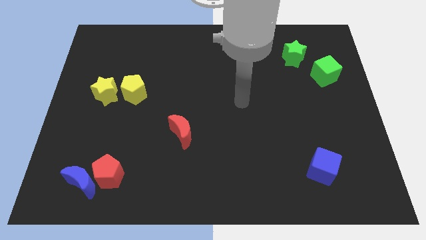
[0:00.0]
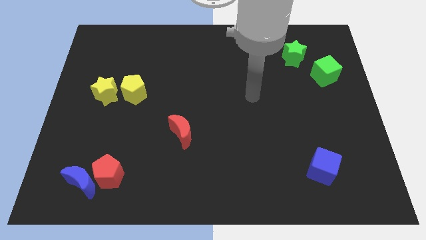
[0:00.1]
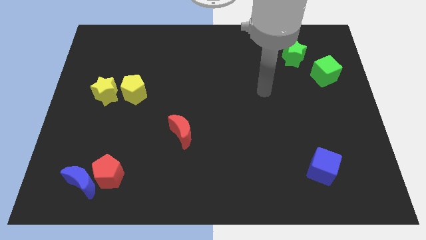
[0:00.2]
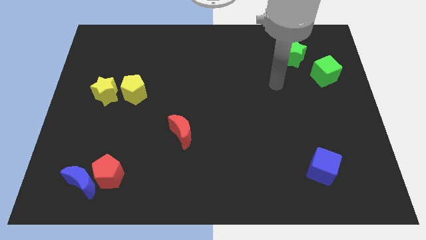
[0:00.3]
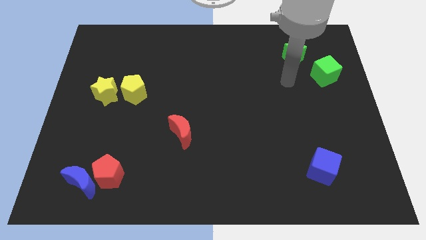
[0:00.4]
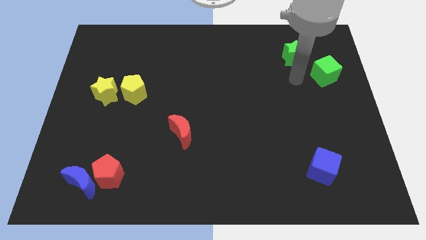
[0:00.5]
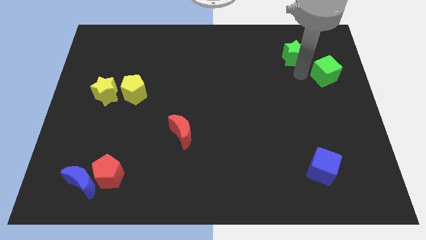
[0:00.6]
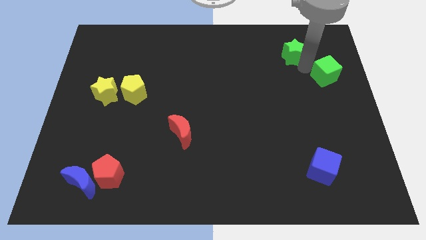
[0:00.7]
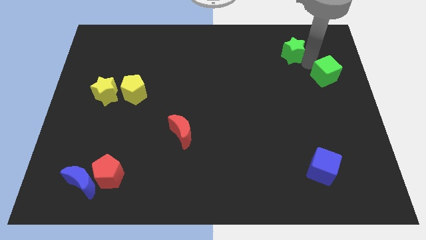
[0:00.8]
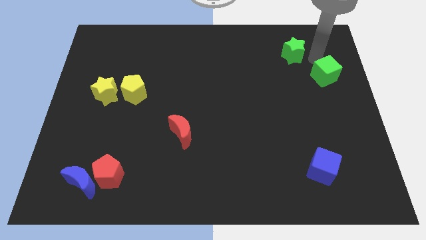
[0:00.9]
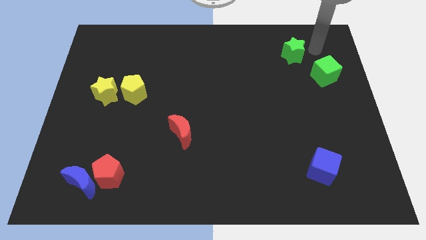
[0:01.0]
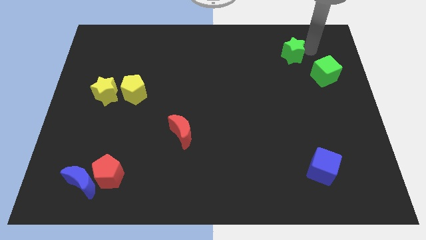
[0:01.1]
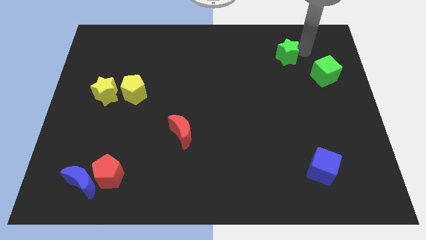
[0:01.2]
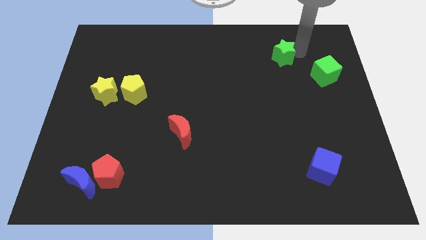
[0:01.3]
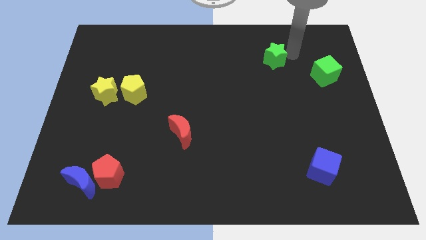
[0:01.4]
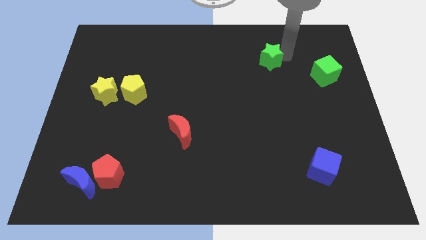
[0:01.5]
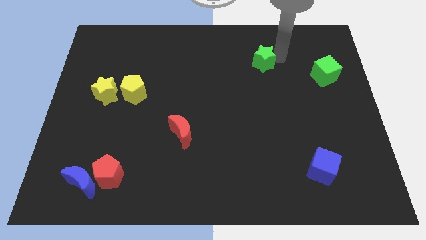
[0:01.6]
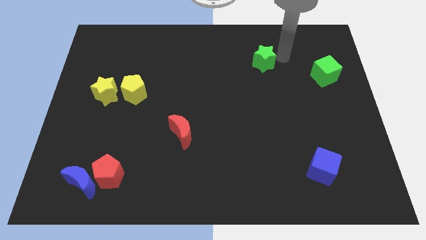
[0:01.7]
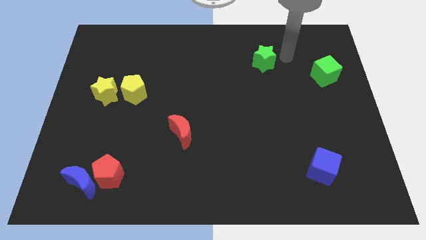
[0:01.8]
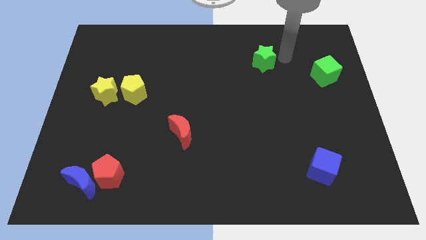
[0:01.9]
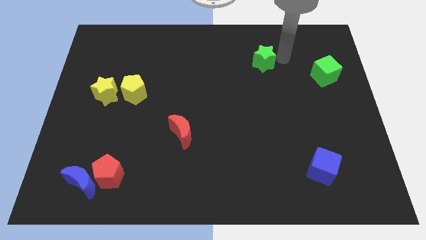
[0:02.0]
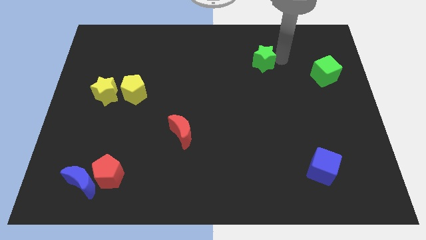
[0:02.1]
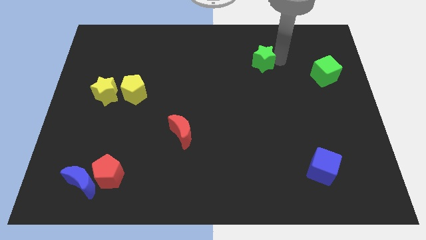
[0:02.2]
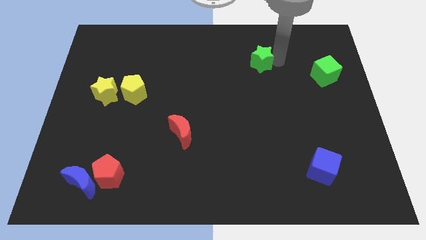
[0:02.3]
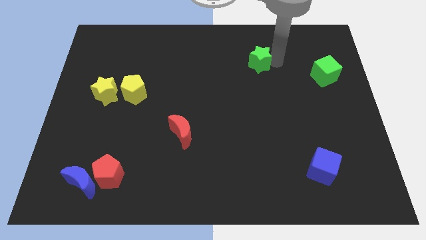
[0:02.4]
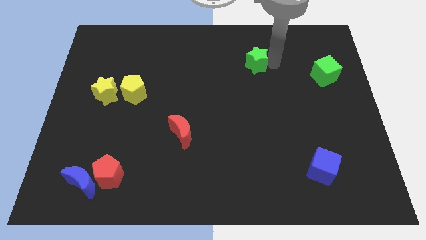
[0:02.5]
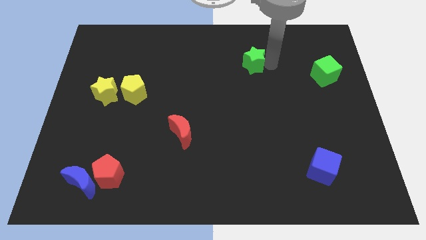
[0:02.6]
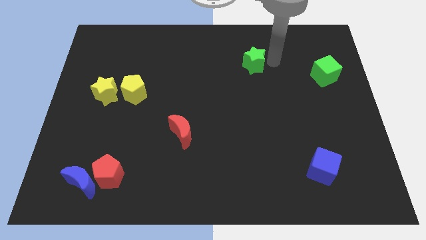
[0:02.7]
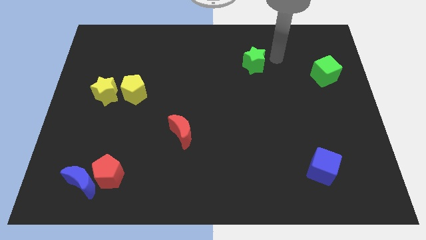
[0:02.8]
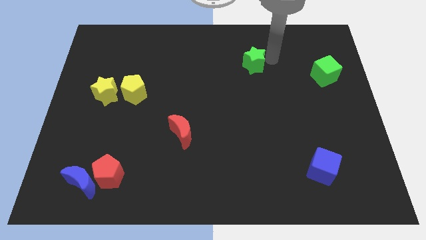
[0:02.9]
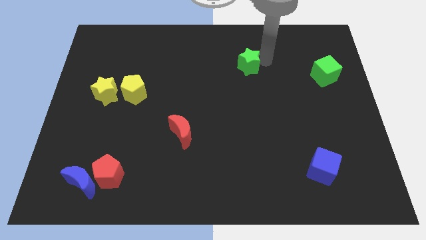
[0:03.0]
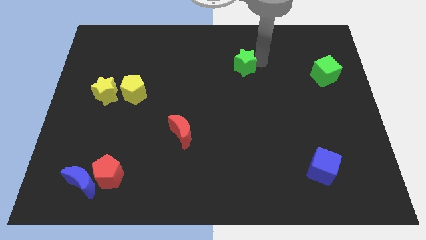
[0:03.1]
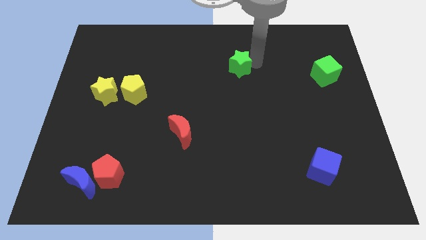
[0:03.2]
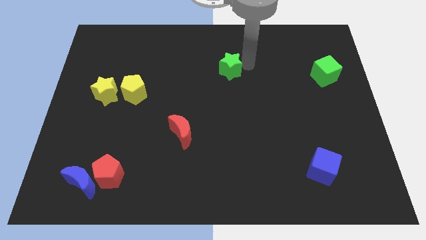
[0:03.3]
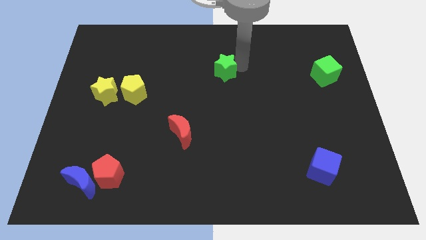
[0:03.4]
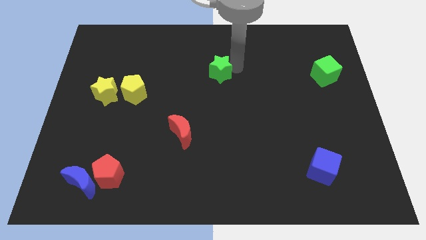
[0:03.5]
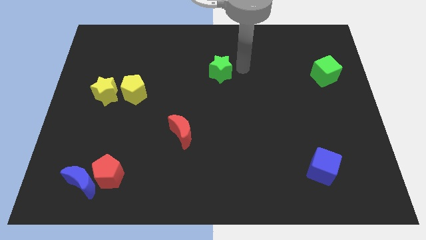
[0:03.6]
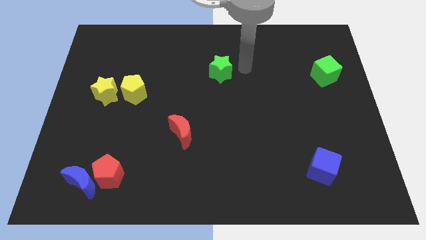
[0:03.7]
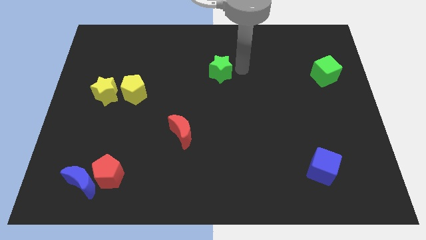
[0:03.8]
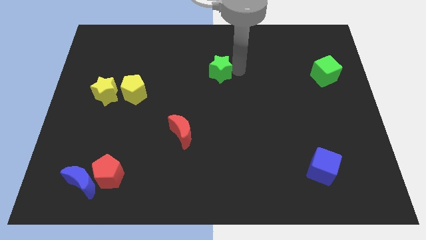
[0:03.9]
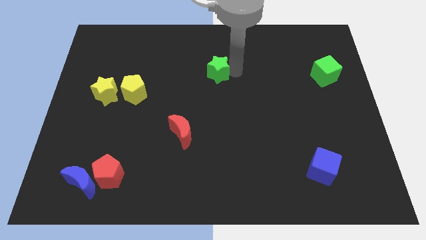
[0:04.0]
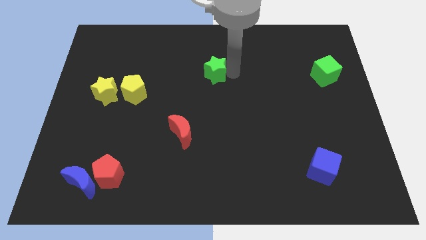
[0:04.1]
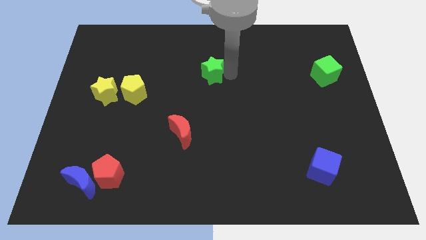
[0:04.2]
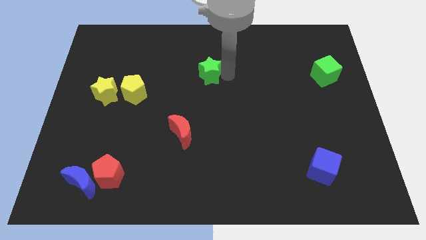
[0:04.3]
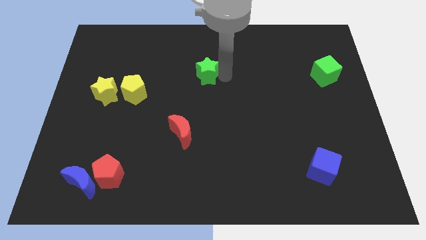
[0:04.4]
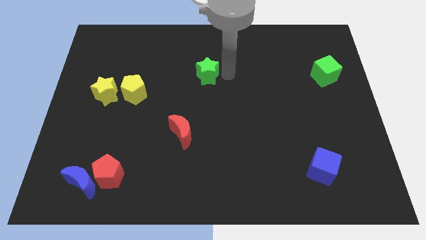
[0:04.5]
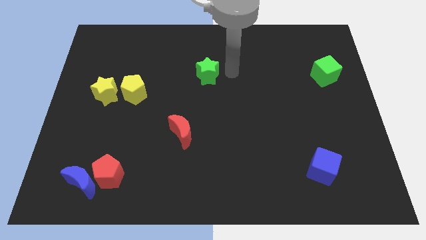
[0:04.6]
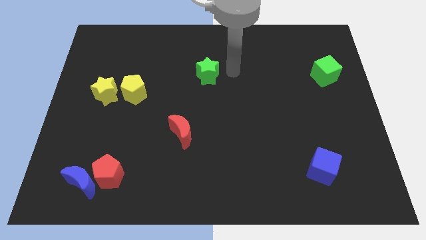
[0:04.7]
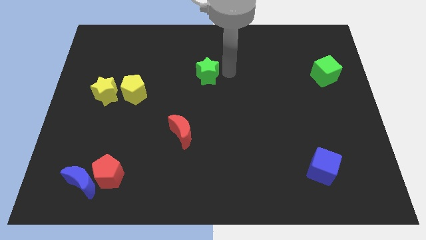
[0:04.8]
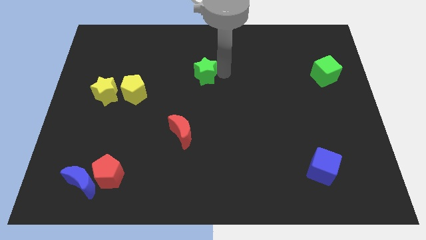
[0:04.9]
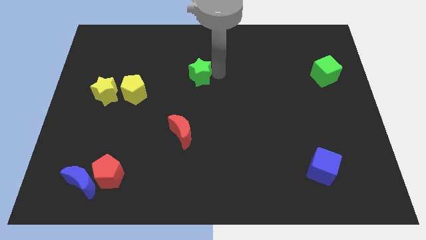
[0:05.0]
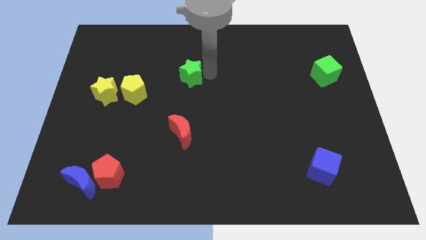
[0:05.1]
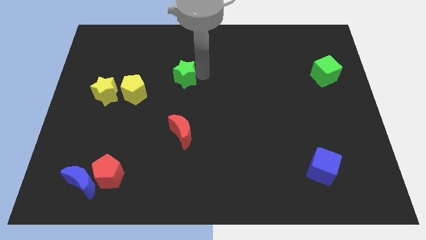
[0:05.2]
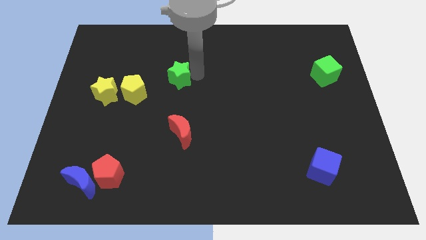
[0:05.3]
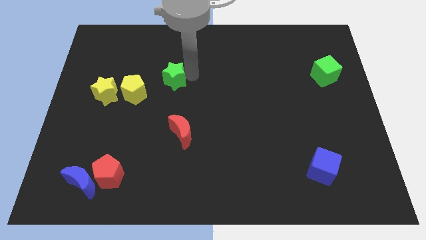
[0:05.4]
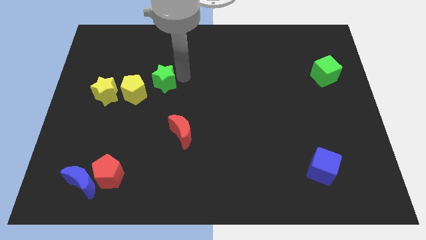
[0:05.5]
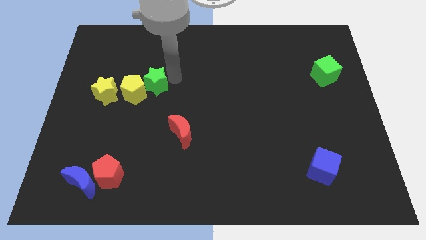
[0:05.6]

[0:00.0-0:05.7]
slide the green star to the yellow pentagon

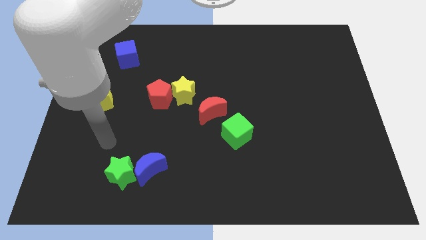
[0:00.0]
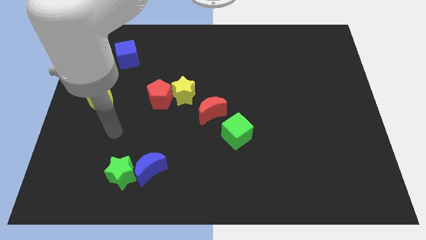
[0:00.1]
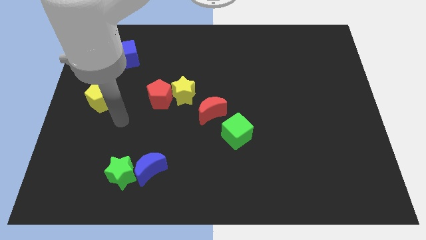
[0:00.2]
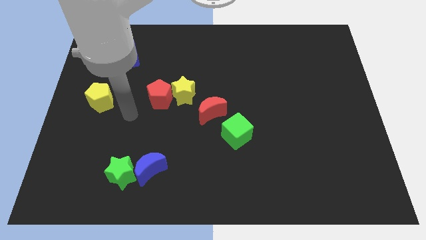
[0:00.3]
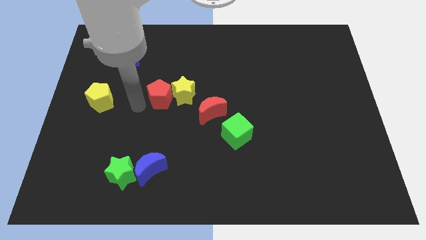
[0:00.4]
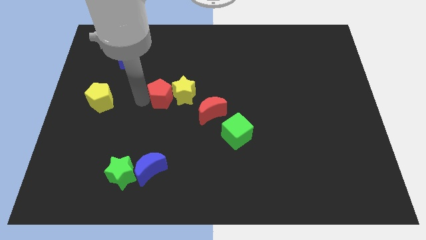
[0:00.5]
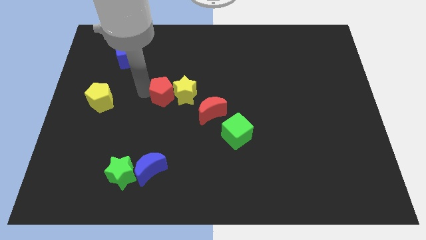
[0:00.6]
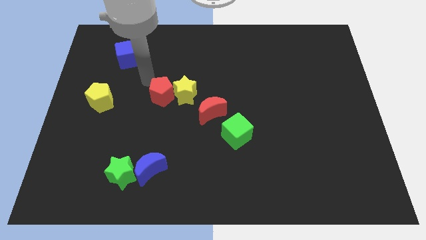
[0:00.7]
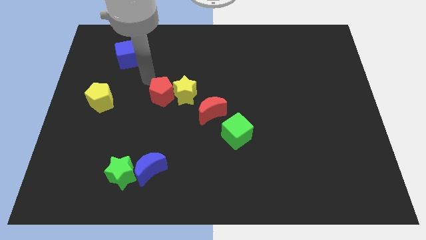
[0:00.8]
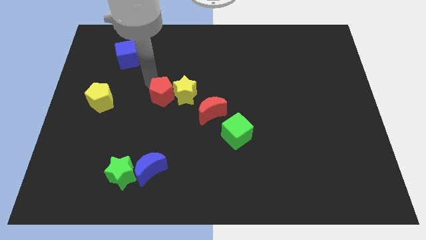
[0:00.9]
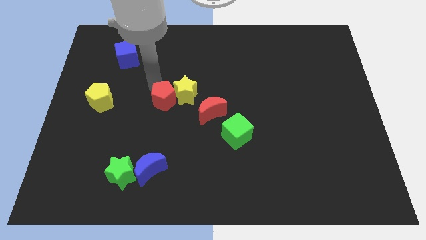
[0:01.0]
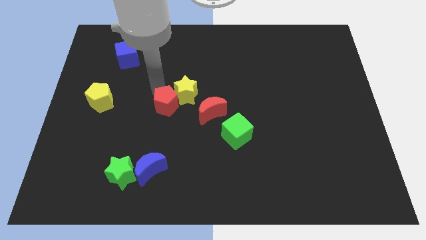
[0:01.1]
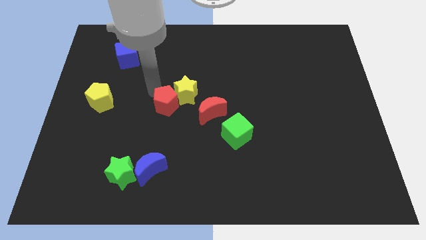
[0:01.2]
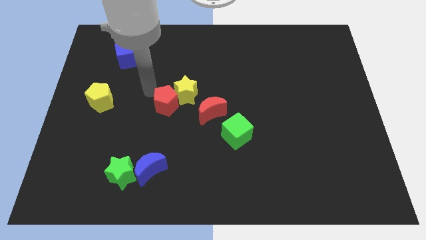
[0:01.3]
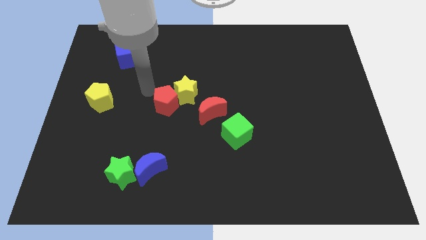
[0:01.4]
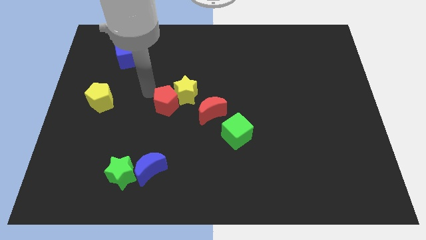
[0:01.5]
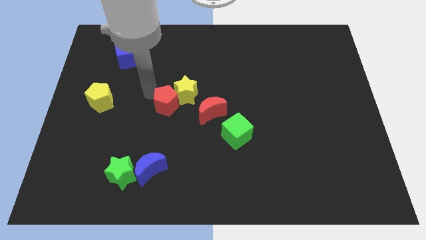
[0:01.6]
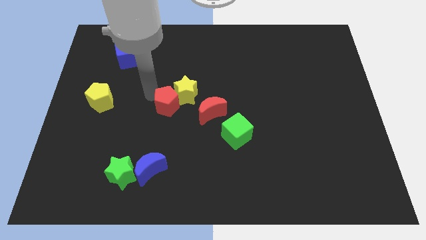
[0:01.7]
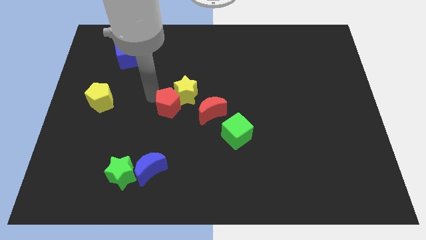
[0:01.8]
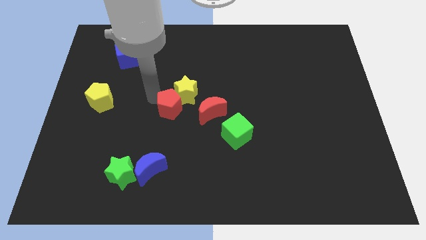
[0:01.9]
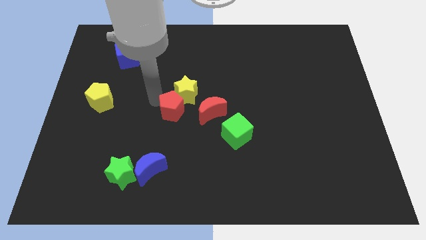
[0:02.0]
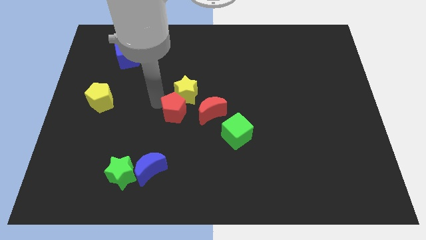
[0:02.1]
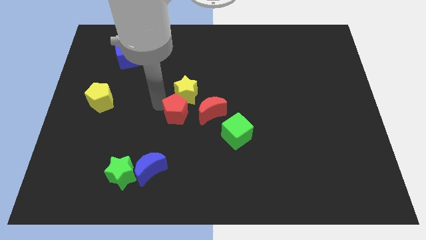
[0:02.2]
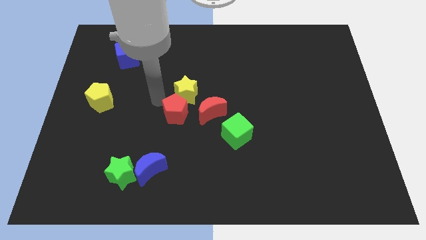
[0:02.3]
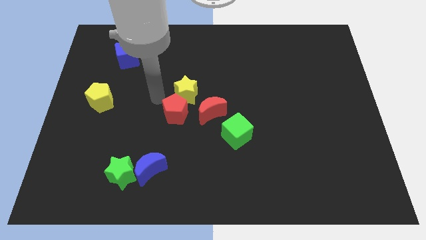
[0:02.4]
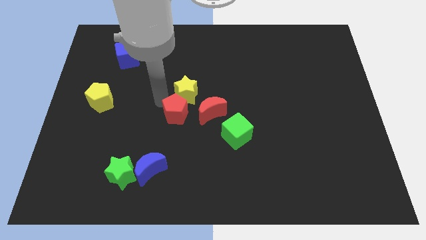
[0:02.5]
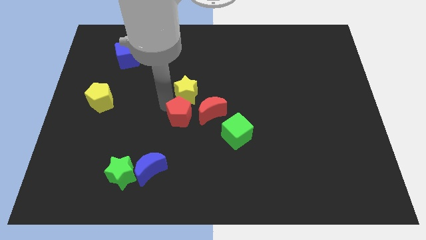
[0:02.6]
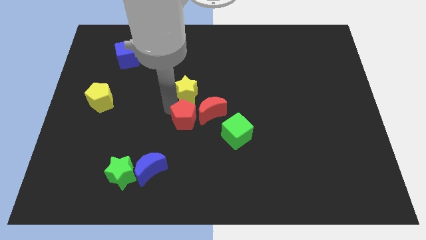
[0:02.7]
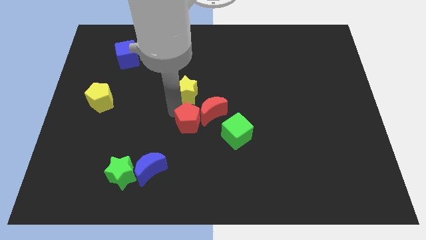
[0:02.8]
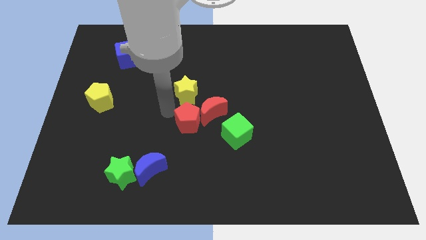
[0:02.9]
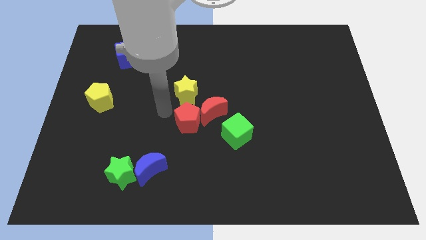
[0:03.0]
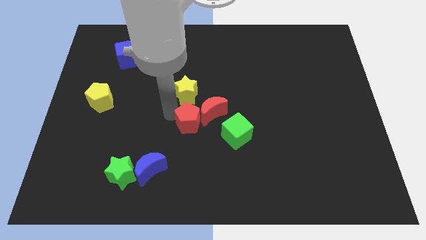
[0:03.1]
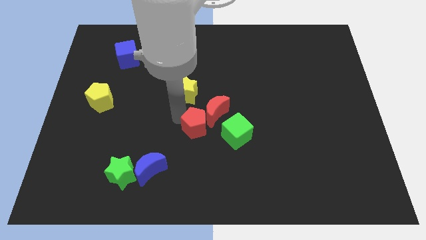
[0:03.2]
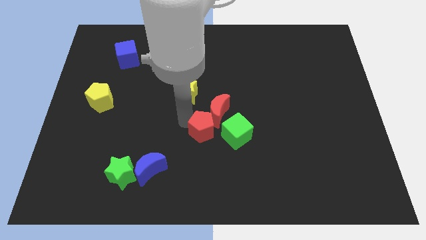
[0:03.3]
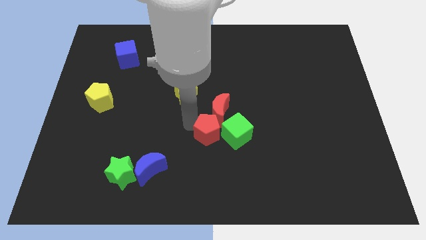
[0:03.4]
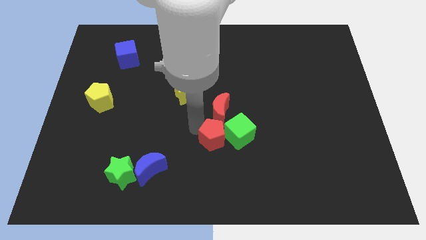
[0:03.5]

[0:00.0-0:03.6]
move the red pentagon to the green cube
